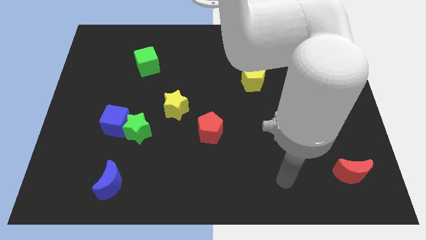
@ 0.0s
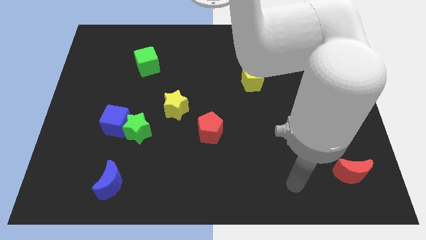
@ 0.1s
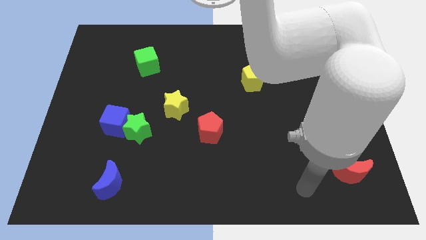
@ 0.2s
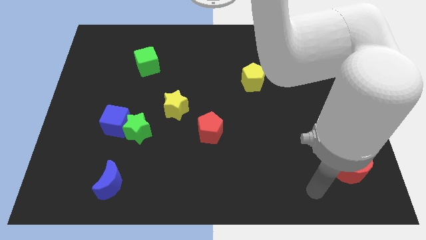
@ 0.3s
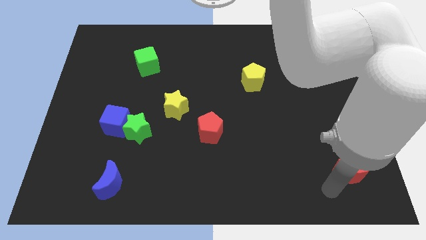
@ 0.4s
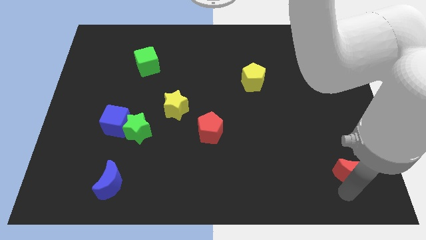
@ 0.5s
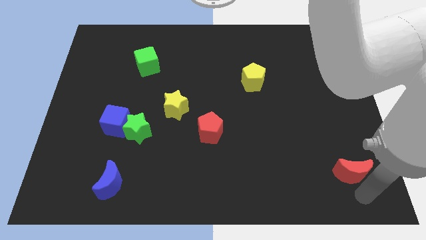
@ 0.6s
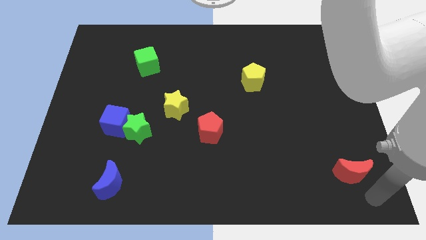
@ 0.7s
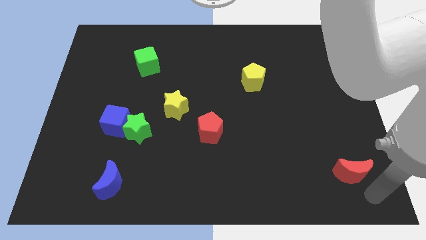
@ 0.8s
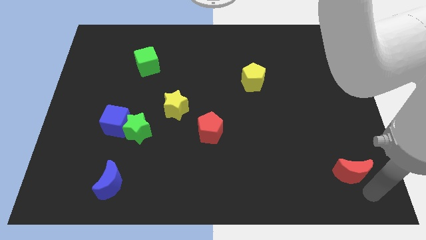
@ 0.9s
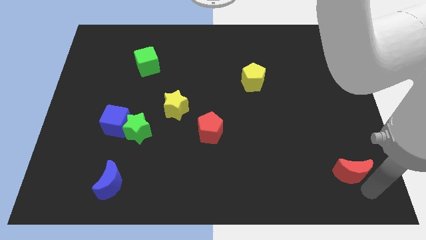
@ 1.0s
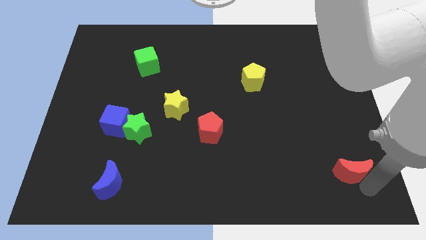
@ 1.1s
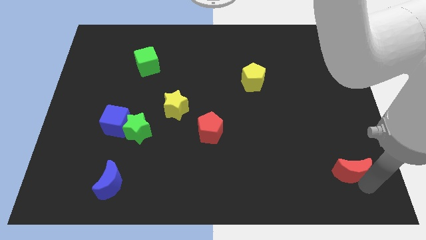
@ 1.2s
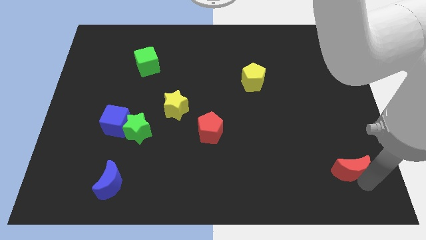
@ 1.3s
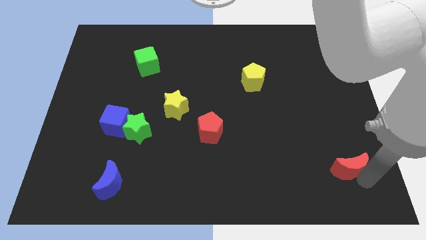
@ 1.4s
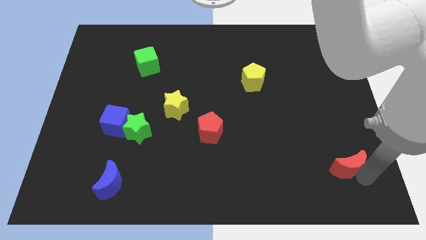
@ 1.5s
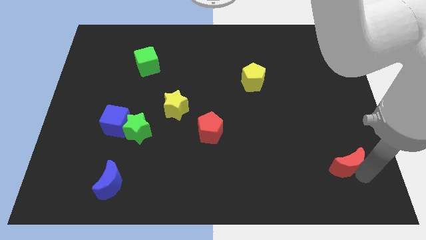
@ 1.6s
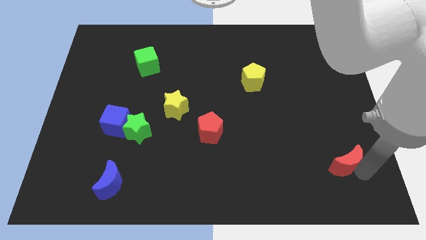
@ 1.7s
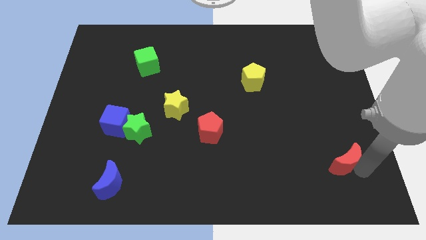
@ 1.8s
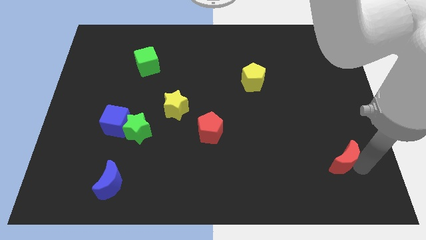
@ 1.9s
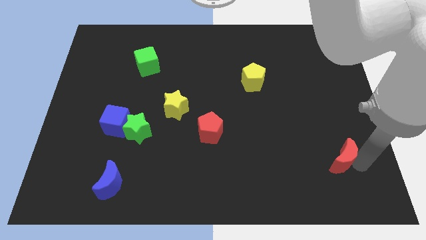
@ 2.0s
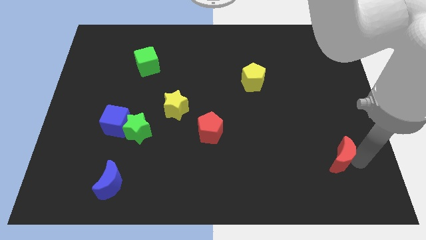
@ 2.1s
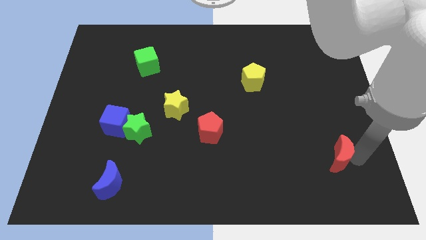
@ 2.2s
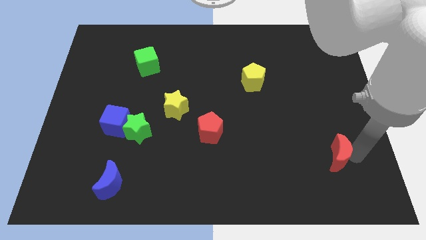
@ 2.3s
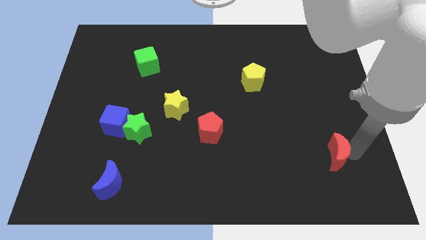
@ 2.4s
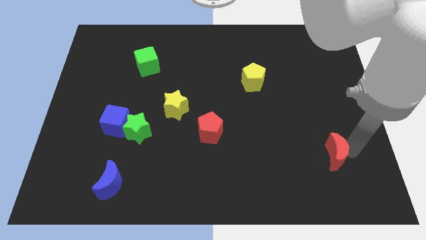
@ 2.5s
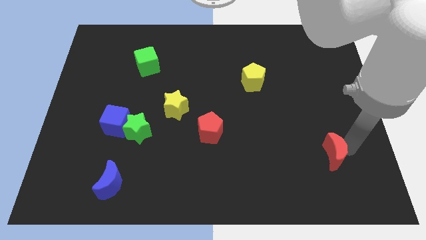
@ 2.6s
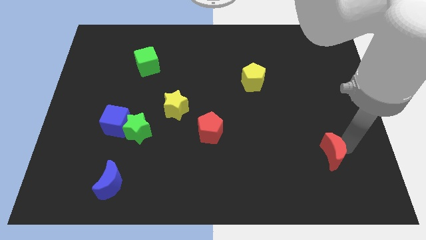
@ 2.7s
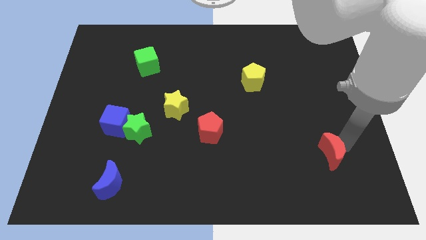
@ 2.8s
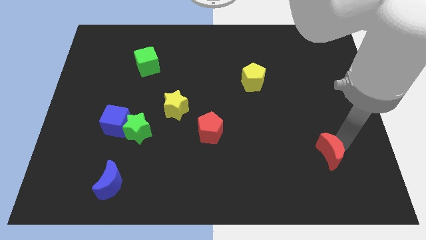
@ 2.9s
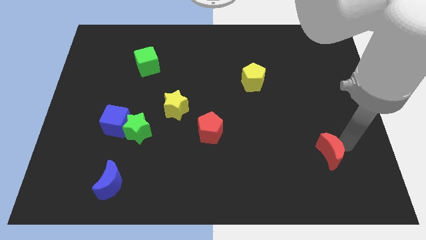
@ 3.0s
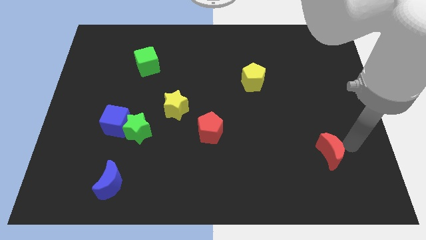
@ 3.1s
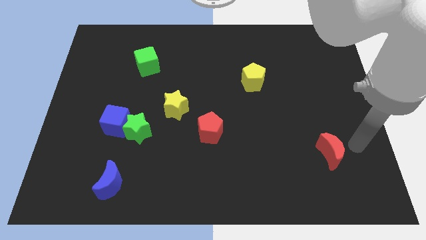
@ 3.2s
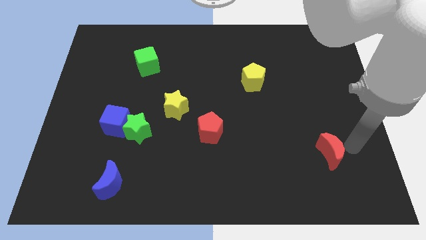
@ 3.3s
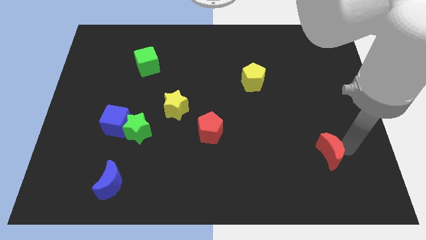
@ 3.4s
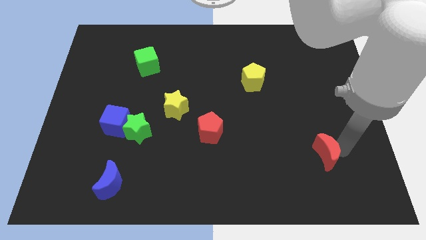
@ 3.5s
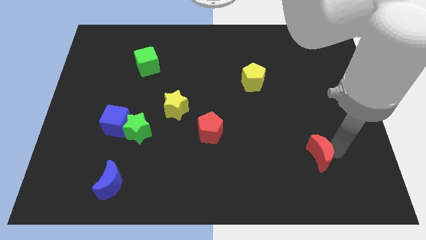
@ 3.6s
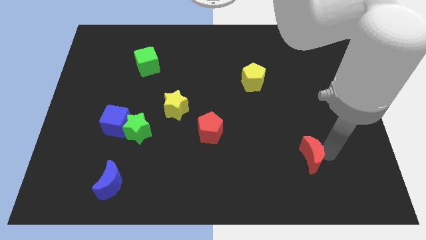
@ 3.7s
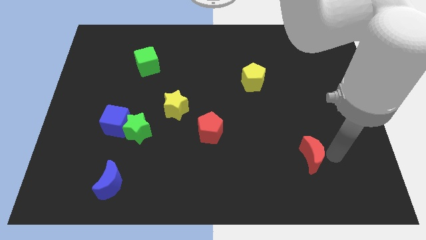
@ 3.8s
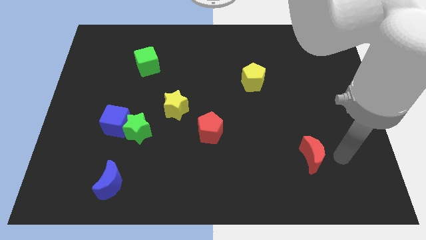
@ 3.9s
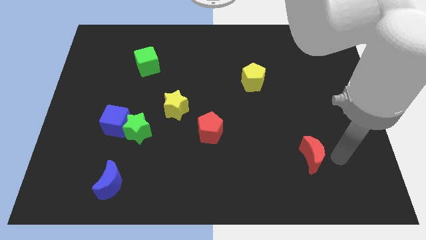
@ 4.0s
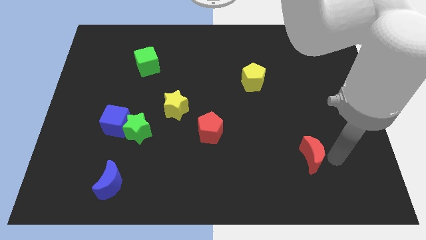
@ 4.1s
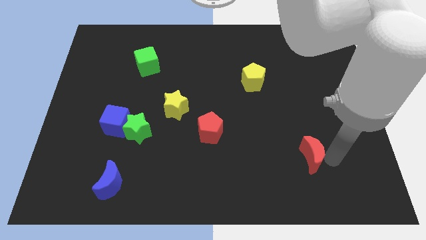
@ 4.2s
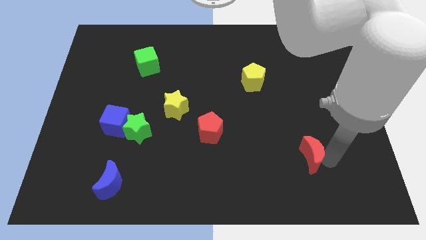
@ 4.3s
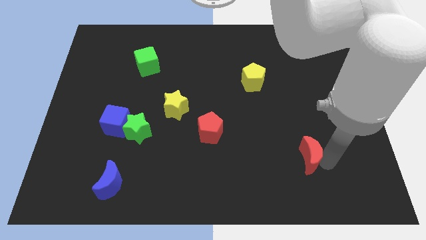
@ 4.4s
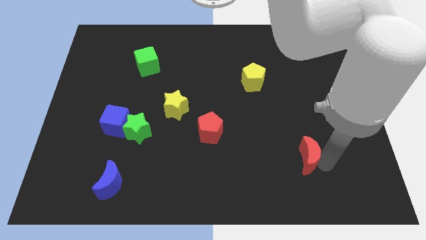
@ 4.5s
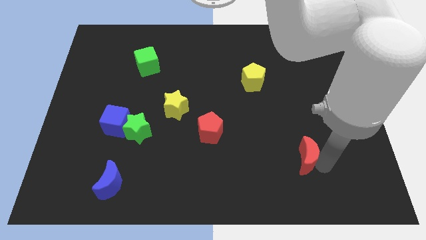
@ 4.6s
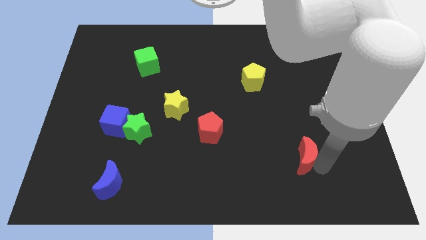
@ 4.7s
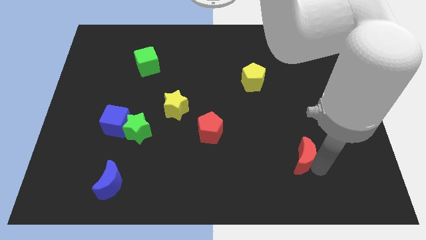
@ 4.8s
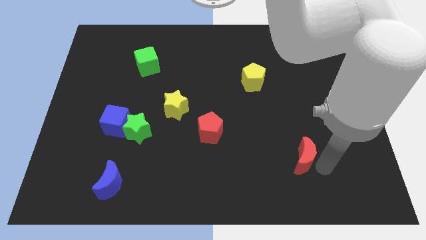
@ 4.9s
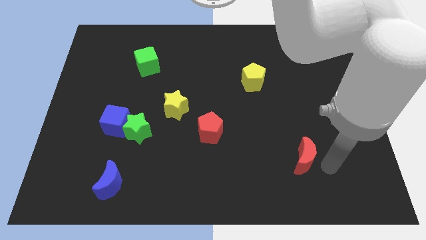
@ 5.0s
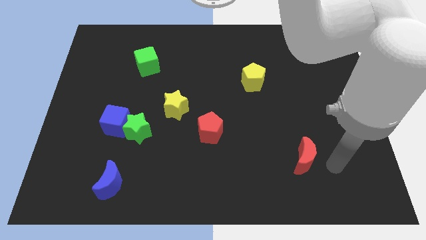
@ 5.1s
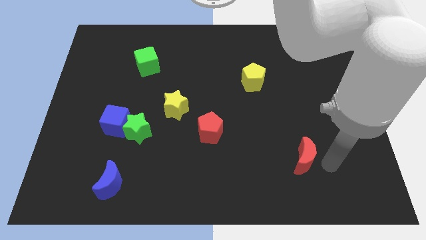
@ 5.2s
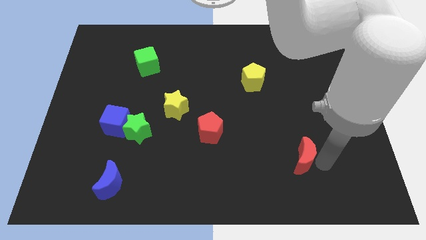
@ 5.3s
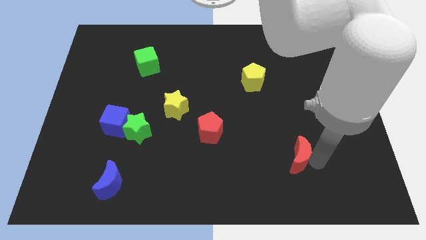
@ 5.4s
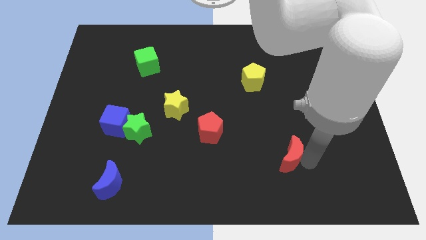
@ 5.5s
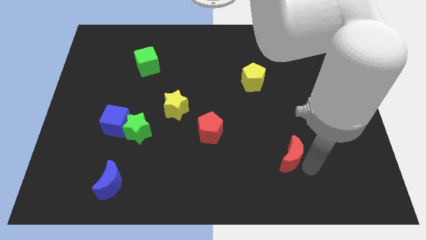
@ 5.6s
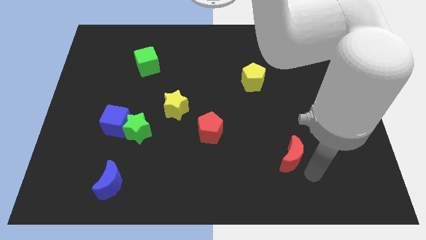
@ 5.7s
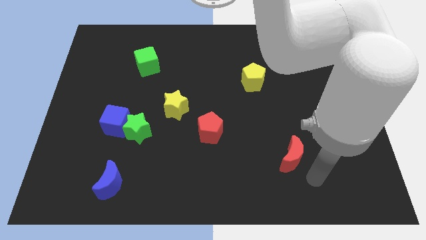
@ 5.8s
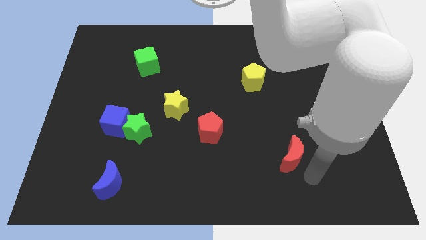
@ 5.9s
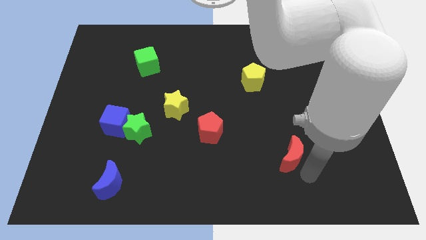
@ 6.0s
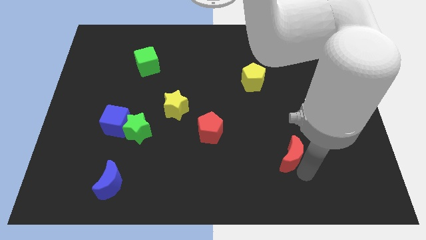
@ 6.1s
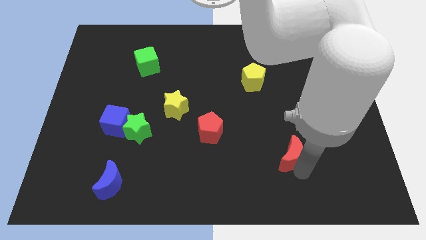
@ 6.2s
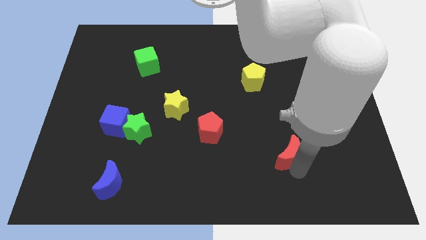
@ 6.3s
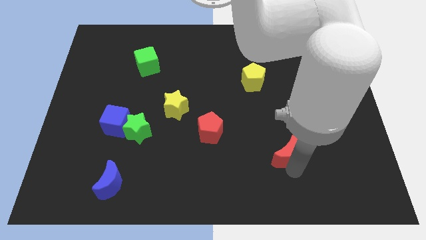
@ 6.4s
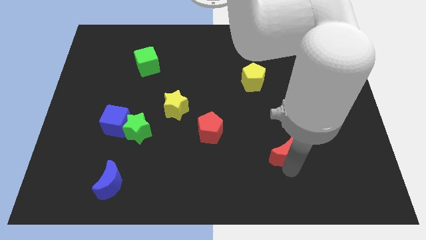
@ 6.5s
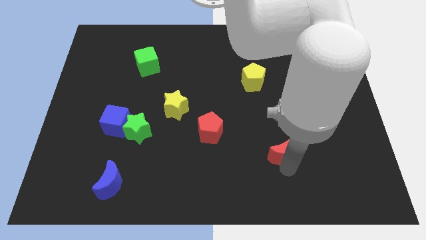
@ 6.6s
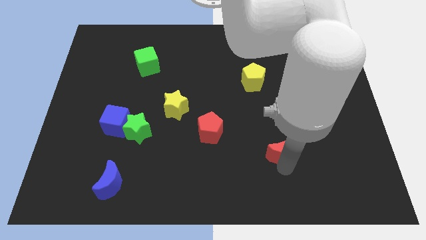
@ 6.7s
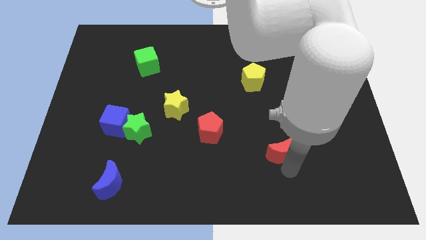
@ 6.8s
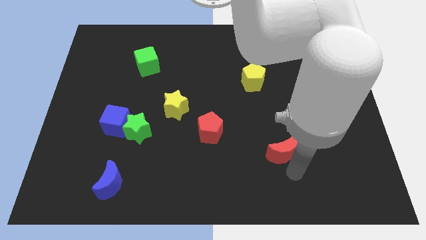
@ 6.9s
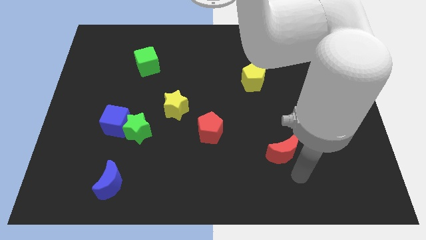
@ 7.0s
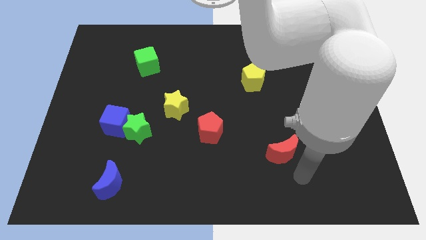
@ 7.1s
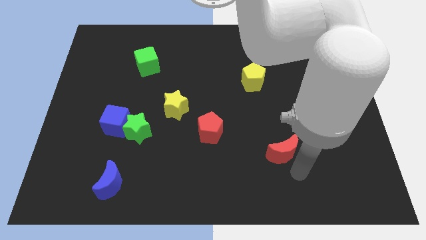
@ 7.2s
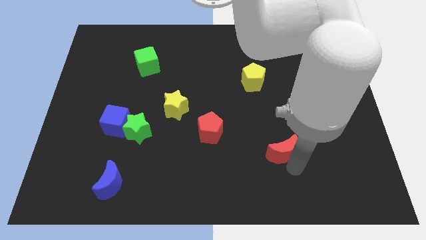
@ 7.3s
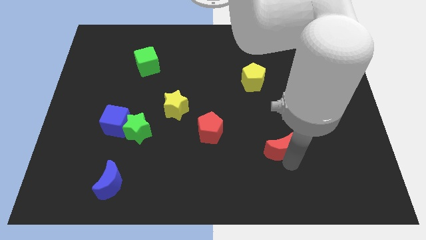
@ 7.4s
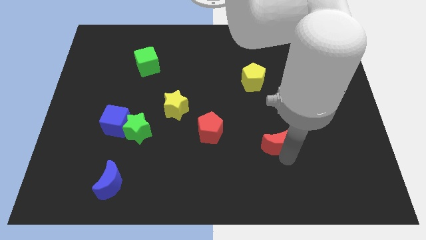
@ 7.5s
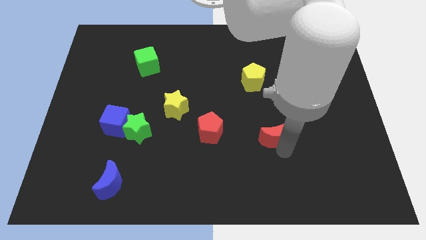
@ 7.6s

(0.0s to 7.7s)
slide the red moon to the right side of the red pentagon

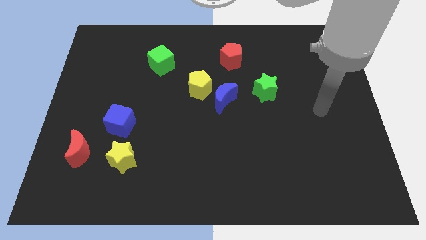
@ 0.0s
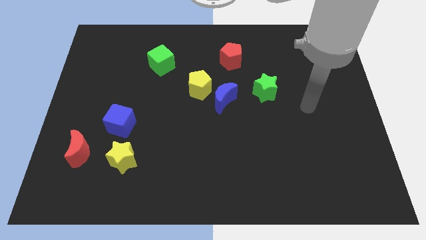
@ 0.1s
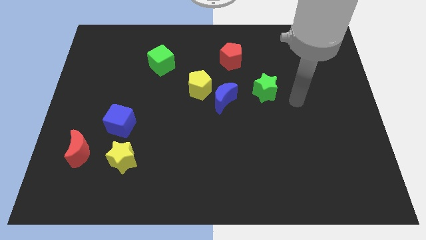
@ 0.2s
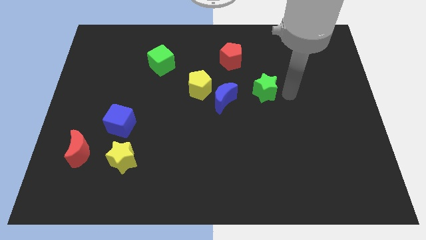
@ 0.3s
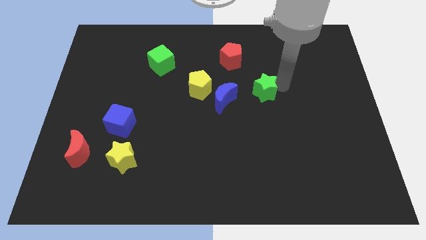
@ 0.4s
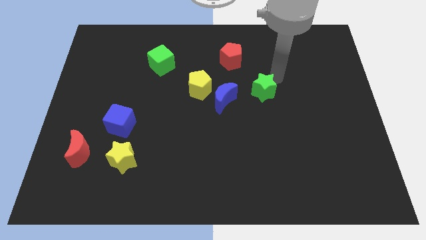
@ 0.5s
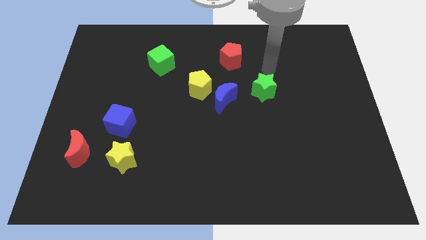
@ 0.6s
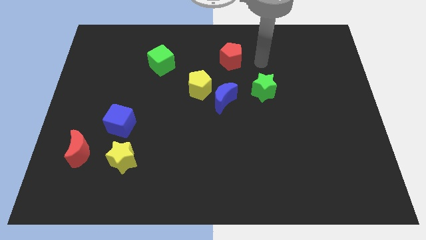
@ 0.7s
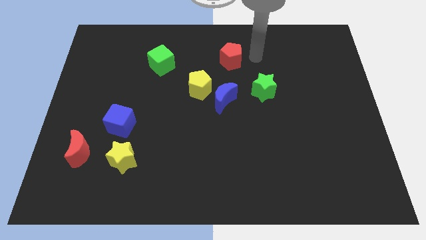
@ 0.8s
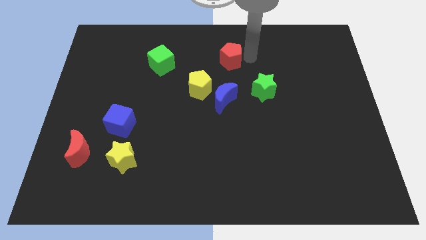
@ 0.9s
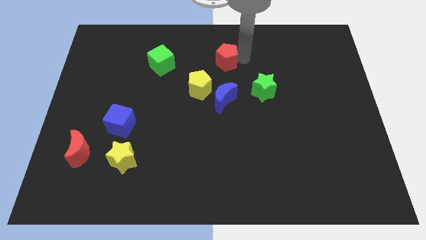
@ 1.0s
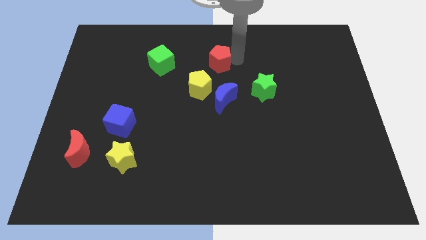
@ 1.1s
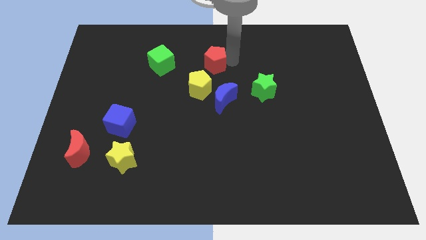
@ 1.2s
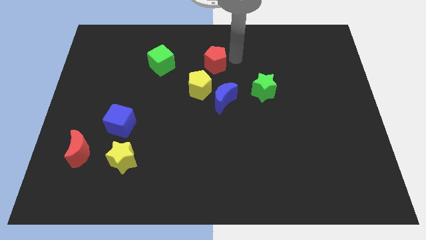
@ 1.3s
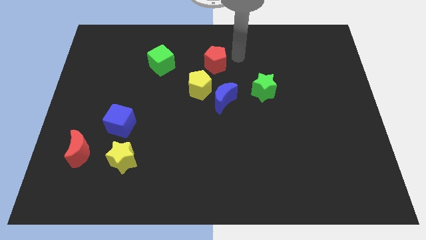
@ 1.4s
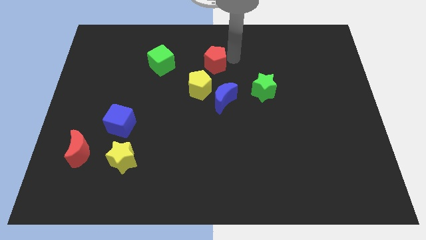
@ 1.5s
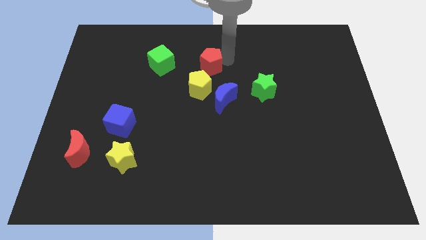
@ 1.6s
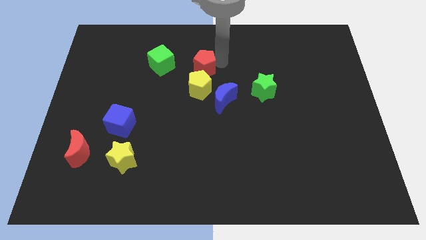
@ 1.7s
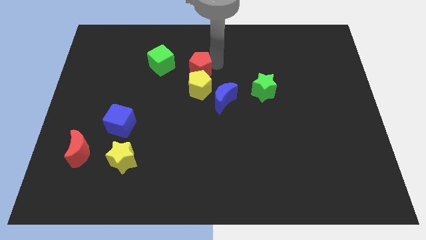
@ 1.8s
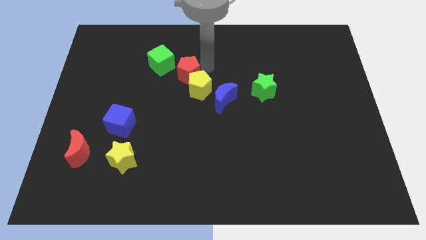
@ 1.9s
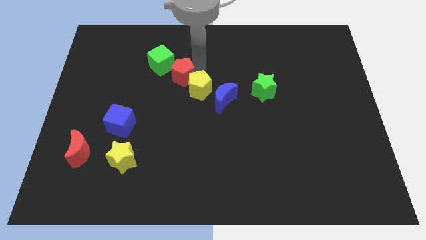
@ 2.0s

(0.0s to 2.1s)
push the red pentagon to the left of the yellow pentagon
